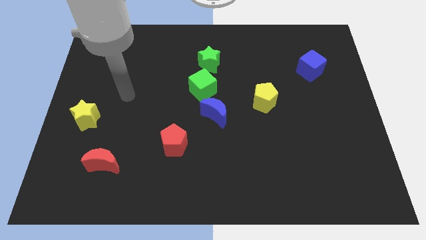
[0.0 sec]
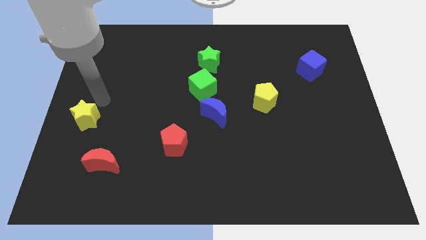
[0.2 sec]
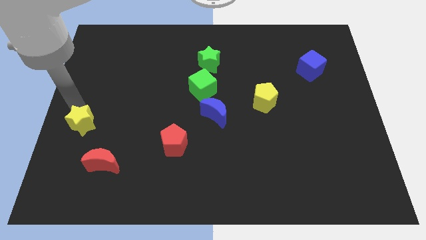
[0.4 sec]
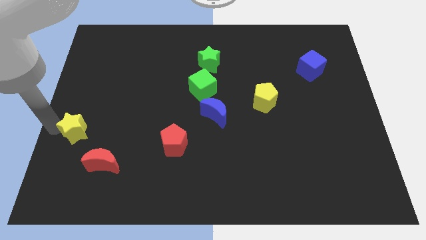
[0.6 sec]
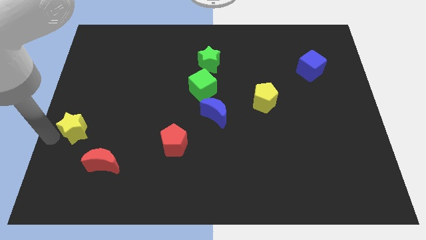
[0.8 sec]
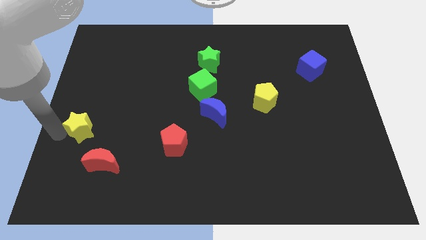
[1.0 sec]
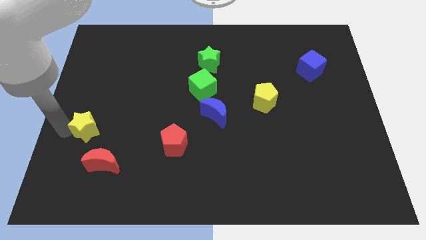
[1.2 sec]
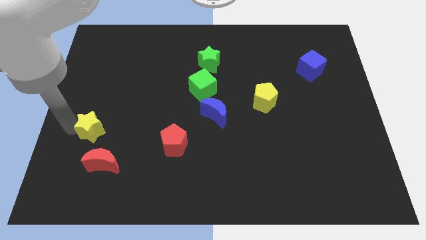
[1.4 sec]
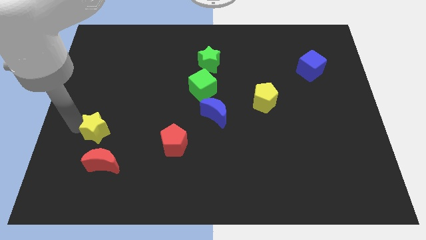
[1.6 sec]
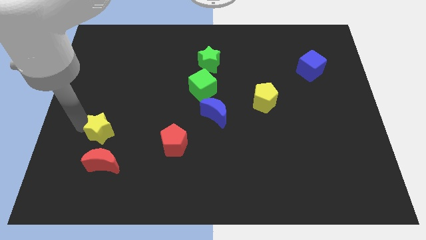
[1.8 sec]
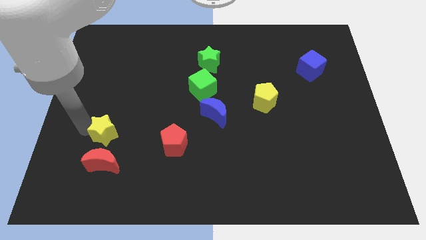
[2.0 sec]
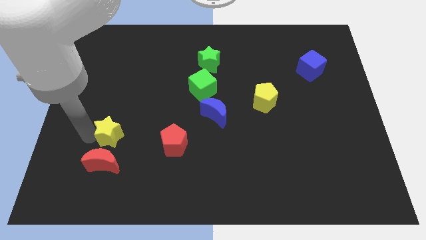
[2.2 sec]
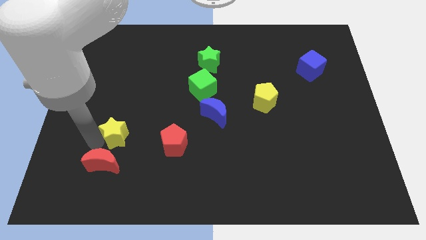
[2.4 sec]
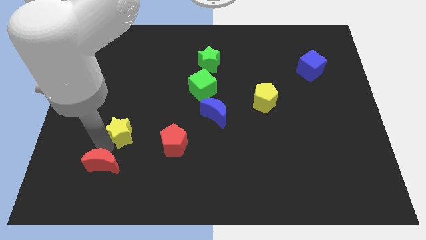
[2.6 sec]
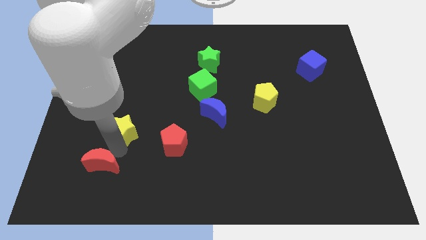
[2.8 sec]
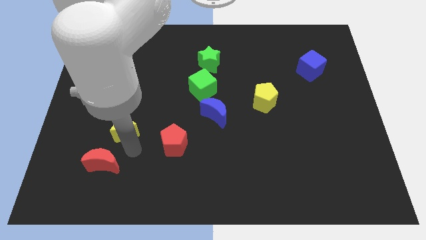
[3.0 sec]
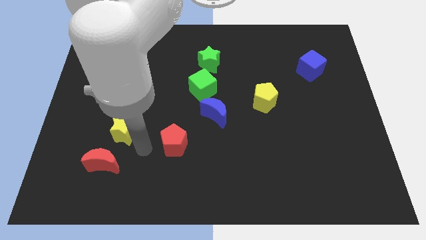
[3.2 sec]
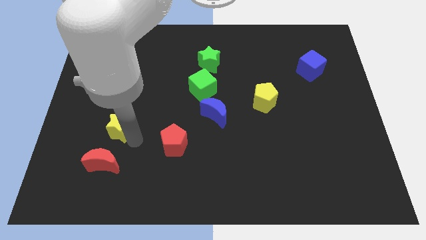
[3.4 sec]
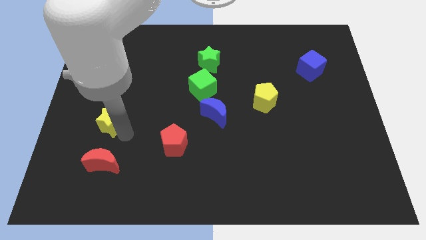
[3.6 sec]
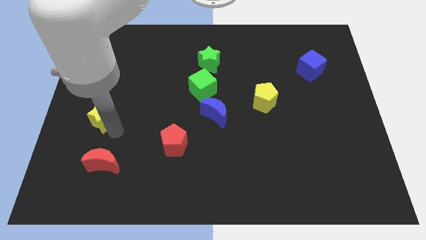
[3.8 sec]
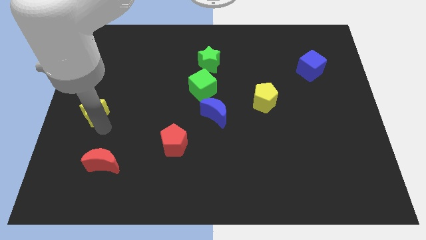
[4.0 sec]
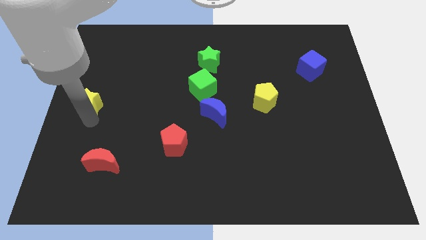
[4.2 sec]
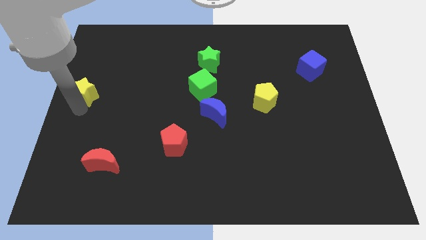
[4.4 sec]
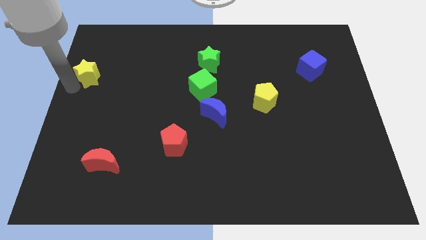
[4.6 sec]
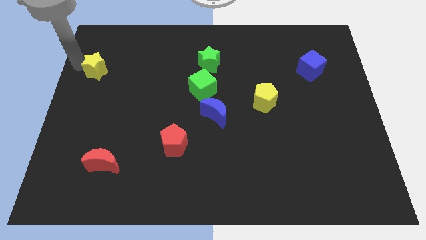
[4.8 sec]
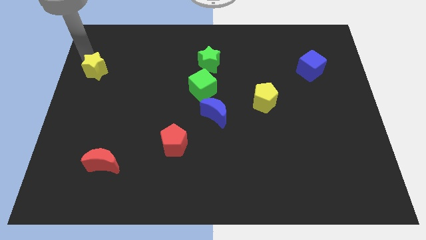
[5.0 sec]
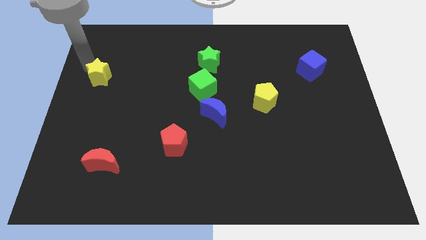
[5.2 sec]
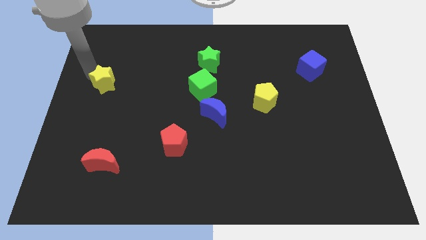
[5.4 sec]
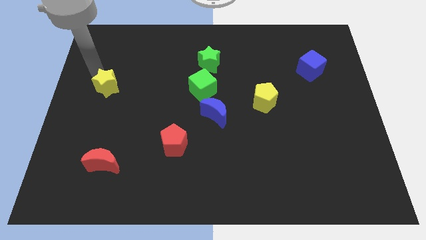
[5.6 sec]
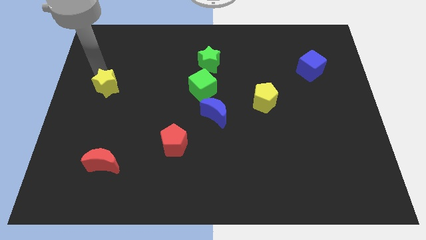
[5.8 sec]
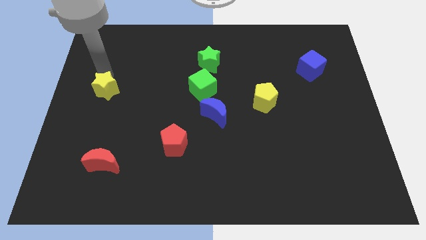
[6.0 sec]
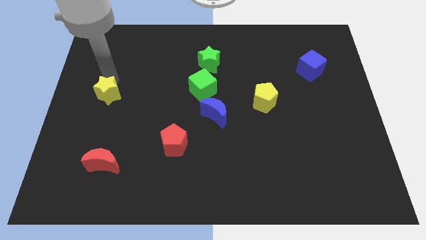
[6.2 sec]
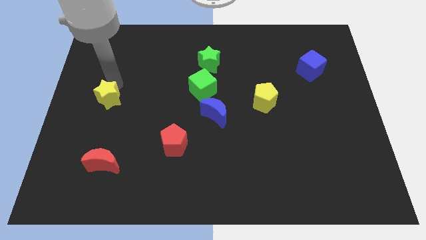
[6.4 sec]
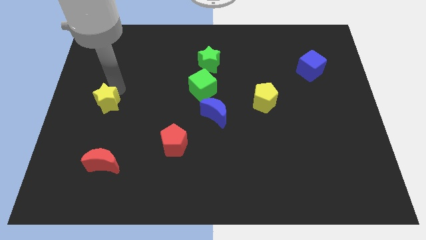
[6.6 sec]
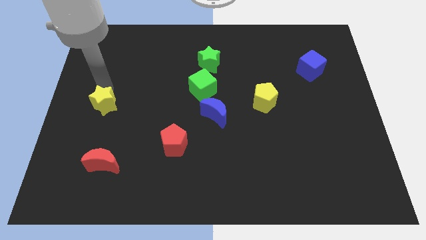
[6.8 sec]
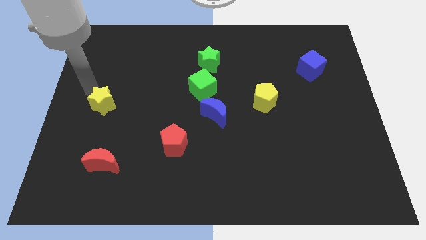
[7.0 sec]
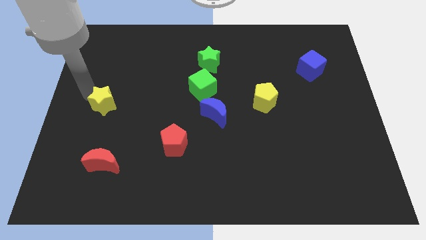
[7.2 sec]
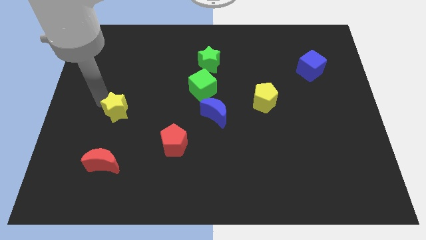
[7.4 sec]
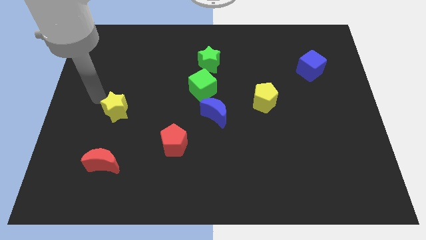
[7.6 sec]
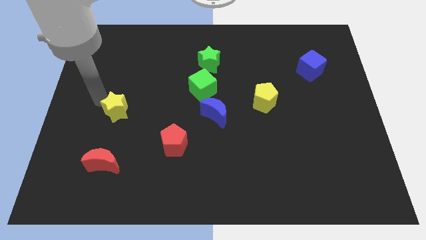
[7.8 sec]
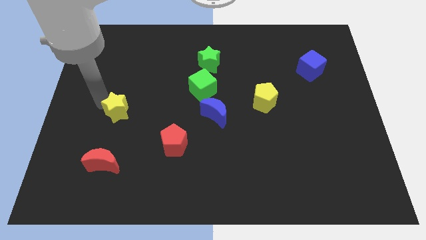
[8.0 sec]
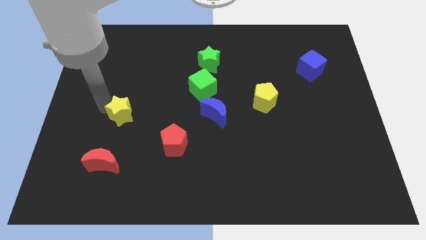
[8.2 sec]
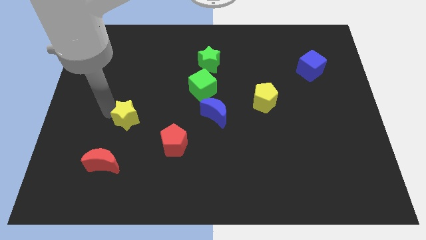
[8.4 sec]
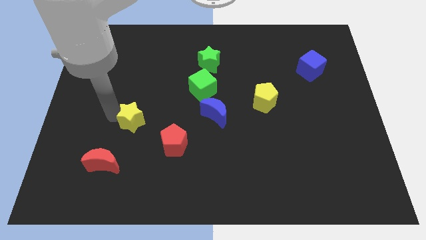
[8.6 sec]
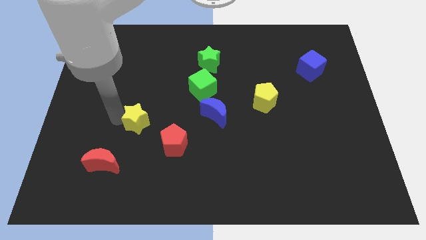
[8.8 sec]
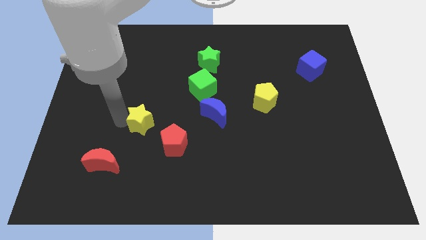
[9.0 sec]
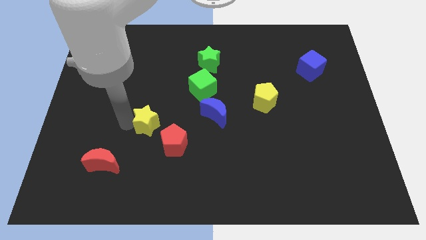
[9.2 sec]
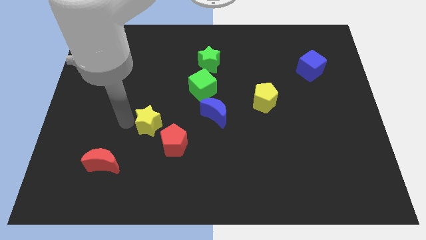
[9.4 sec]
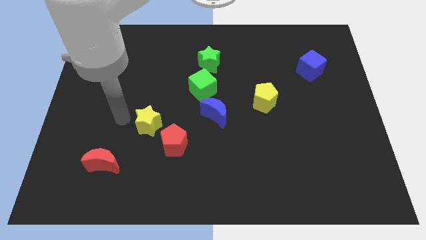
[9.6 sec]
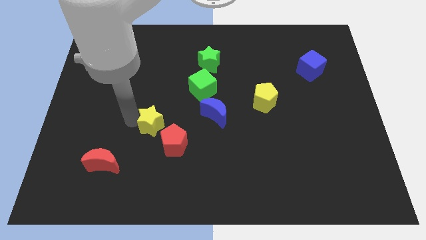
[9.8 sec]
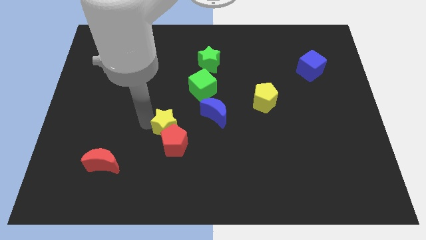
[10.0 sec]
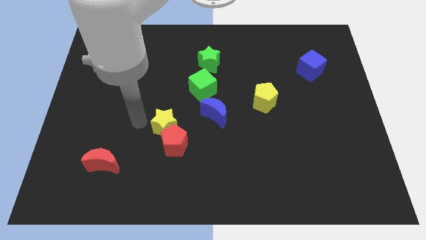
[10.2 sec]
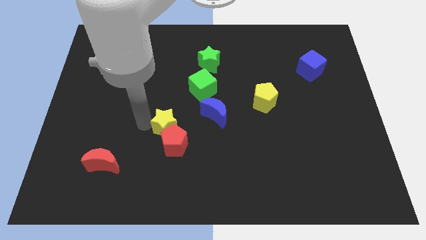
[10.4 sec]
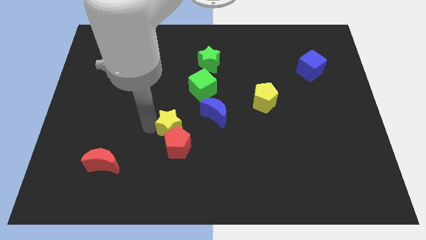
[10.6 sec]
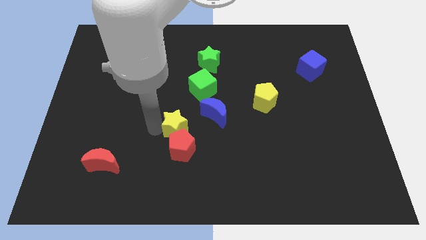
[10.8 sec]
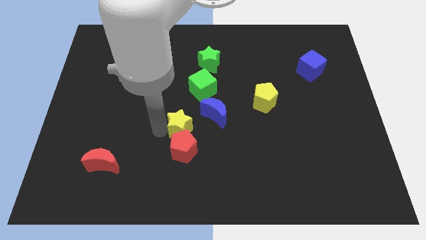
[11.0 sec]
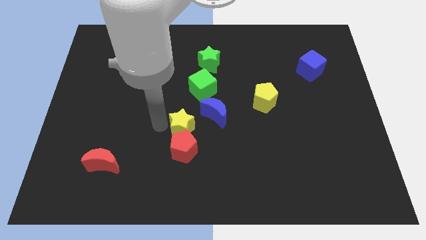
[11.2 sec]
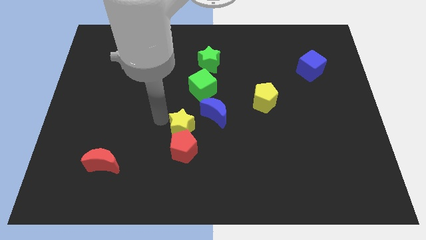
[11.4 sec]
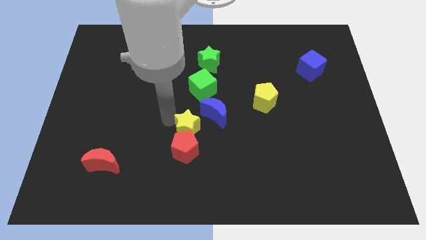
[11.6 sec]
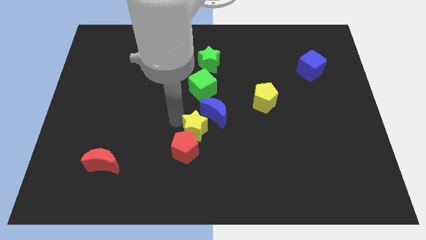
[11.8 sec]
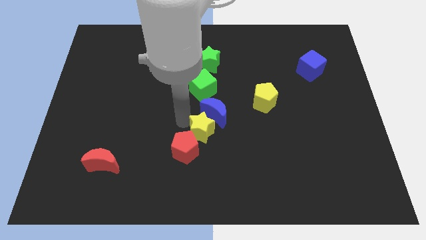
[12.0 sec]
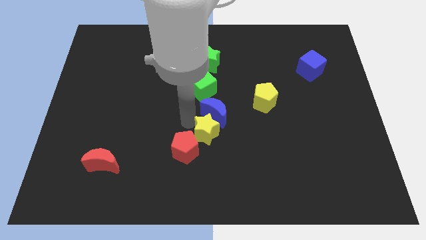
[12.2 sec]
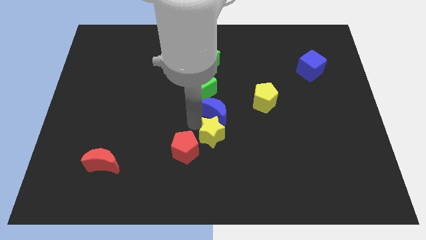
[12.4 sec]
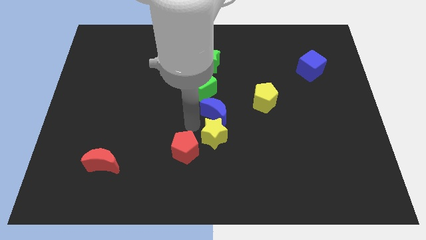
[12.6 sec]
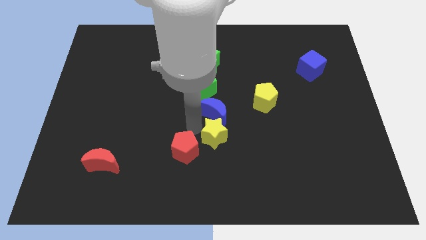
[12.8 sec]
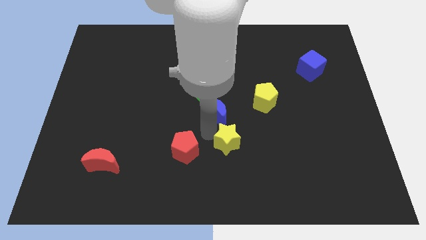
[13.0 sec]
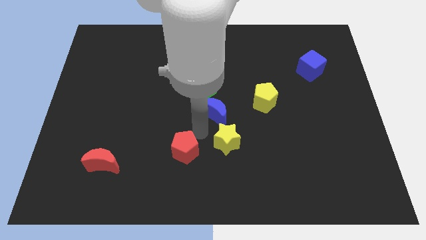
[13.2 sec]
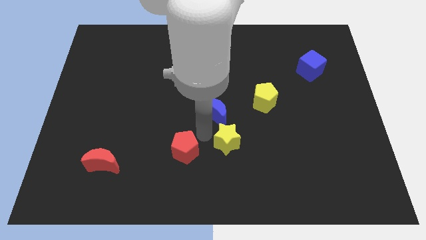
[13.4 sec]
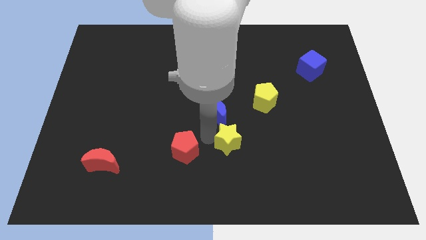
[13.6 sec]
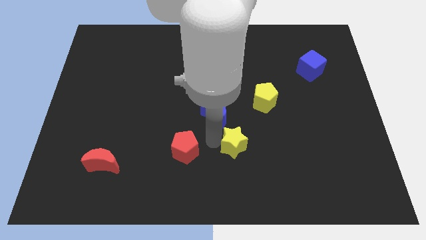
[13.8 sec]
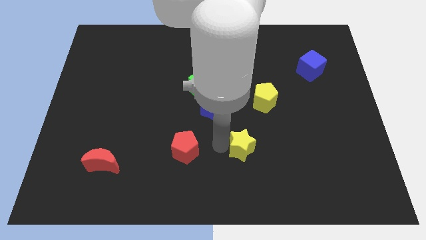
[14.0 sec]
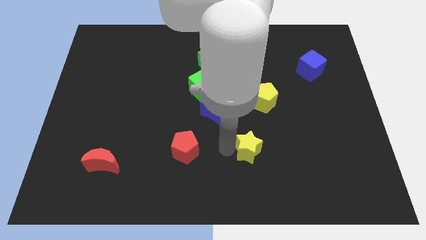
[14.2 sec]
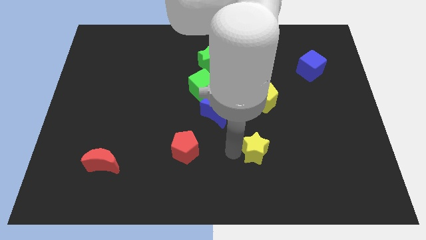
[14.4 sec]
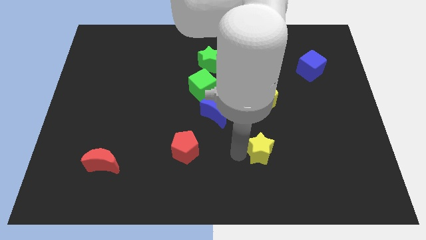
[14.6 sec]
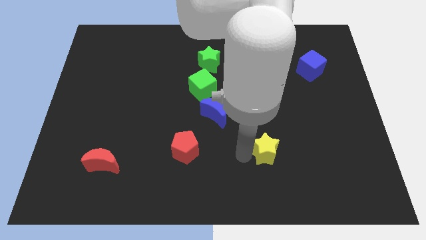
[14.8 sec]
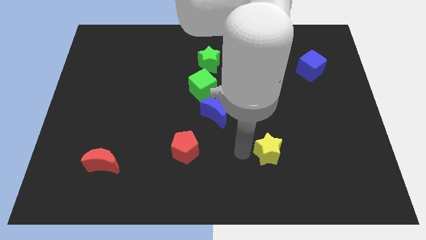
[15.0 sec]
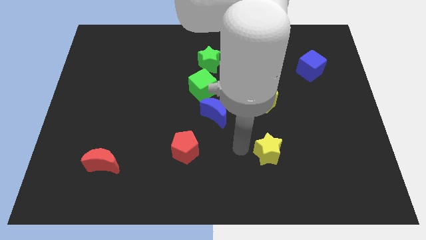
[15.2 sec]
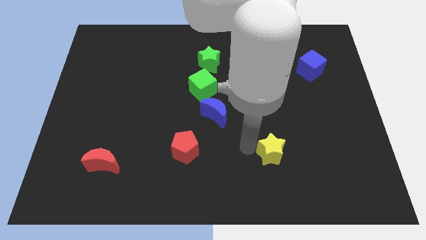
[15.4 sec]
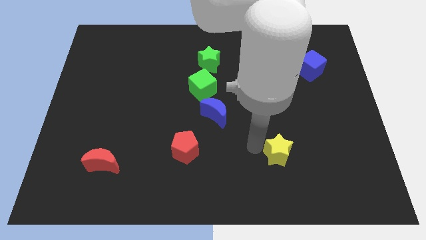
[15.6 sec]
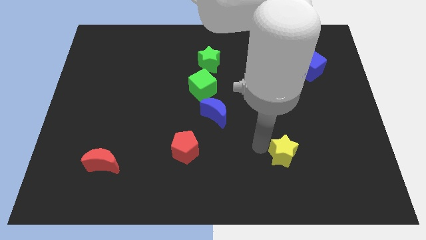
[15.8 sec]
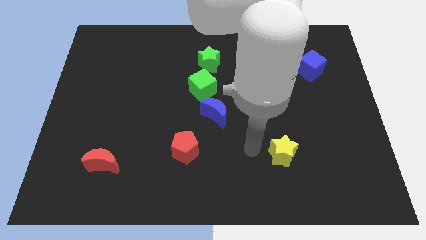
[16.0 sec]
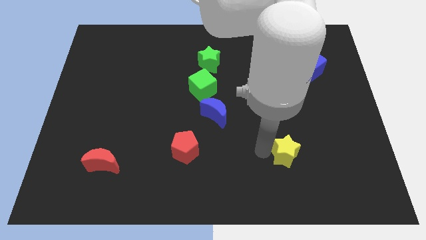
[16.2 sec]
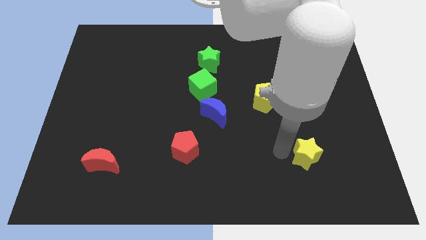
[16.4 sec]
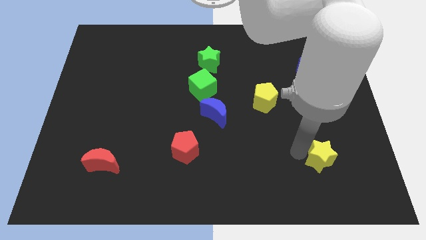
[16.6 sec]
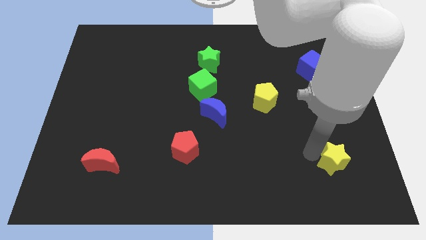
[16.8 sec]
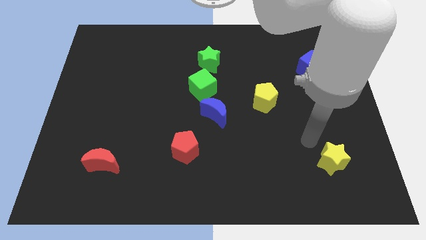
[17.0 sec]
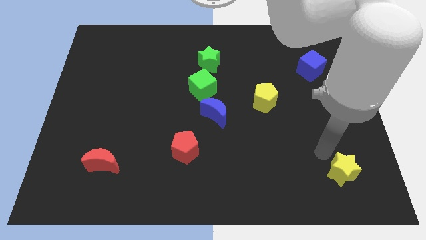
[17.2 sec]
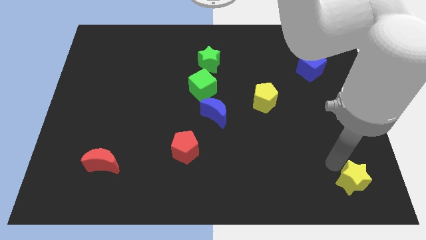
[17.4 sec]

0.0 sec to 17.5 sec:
put the yellow star to the bottom right corner
